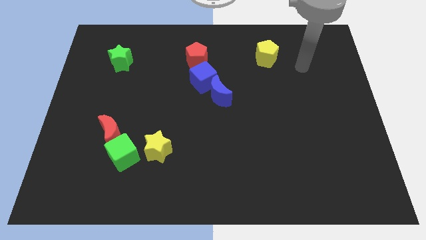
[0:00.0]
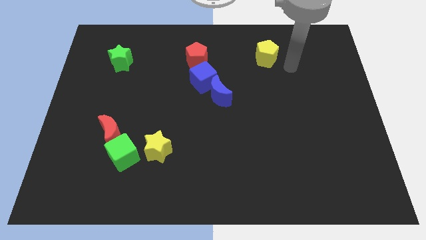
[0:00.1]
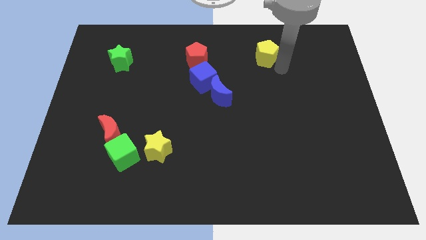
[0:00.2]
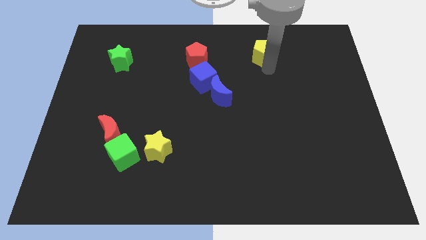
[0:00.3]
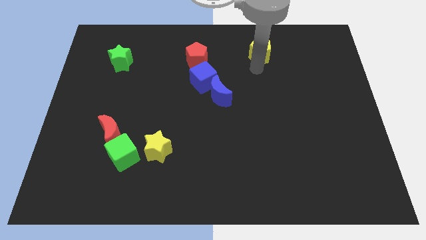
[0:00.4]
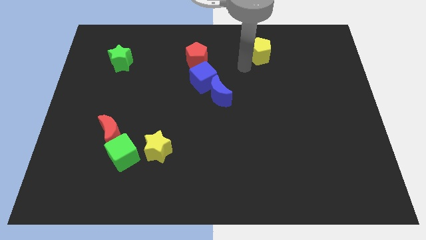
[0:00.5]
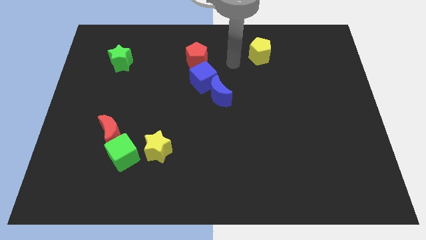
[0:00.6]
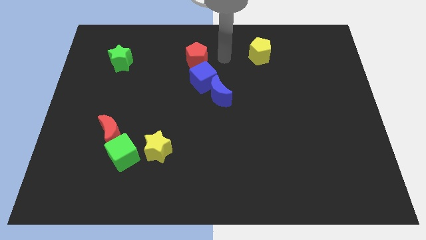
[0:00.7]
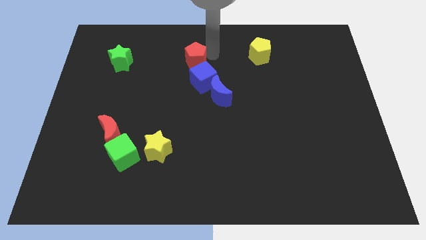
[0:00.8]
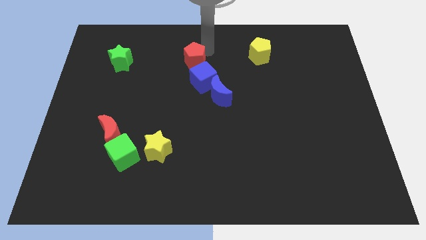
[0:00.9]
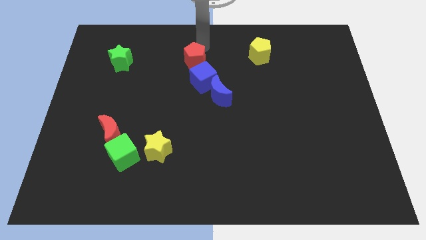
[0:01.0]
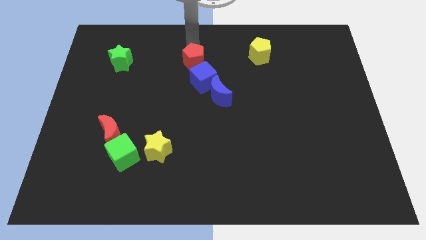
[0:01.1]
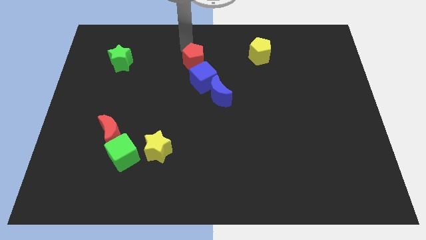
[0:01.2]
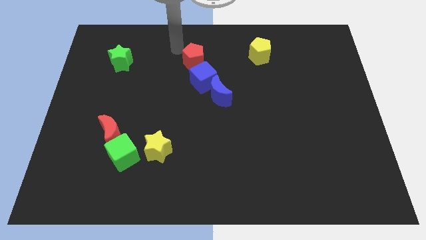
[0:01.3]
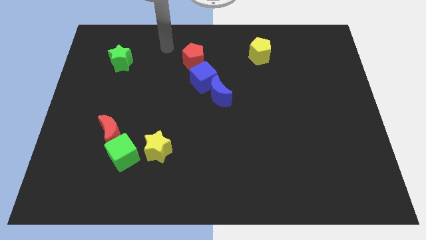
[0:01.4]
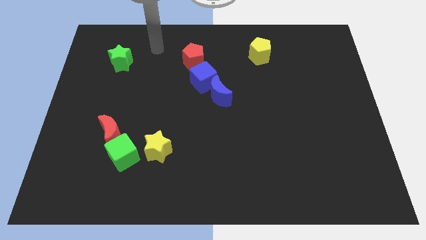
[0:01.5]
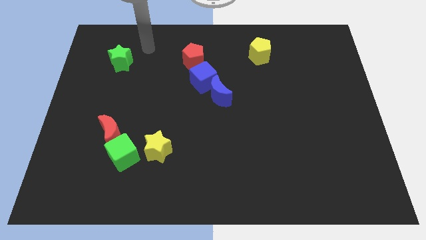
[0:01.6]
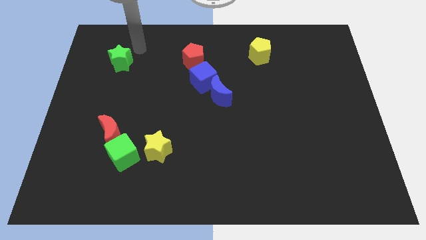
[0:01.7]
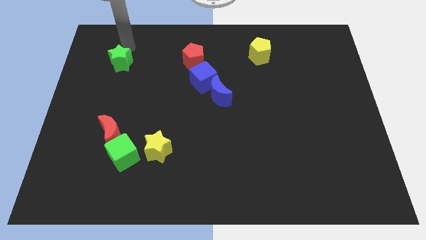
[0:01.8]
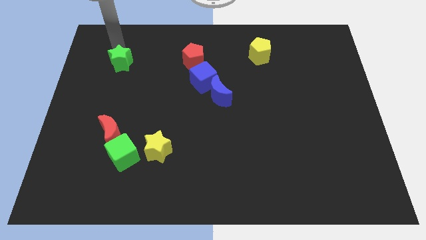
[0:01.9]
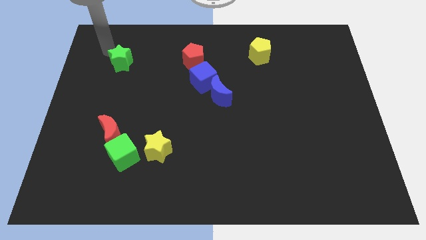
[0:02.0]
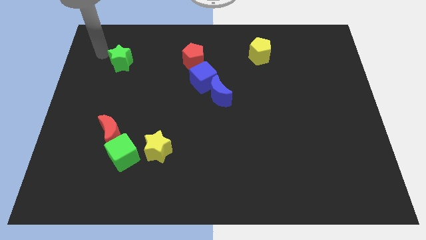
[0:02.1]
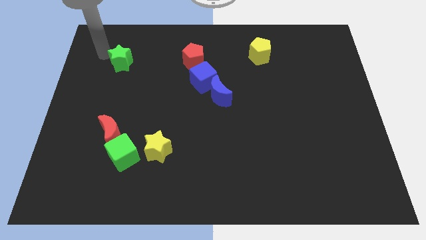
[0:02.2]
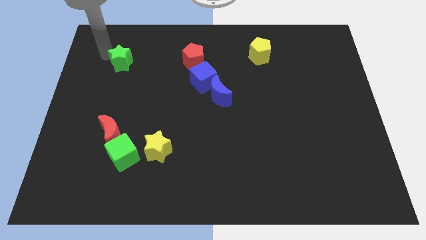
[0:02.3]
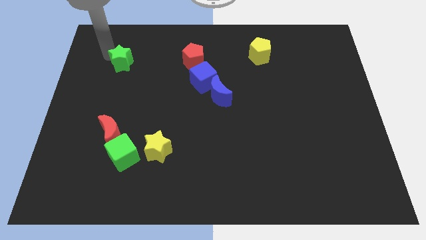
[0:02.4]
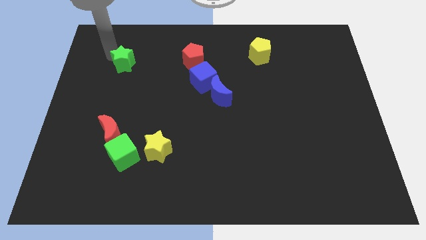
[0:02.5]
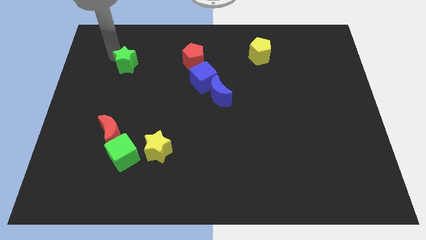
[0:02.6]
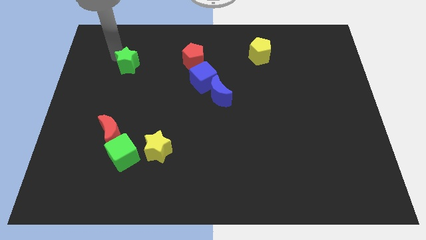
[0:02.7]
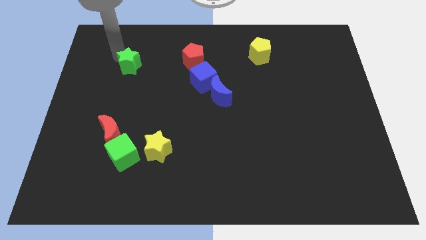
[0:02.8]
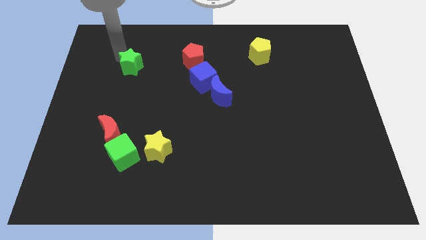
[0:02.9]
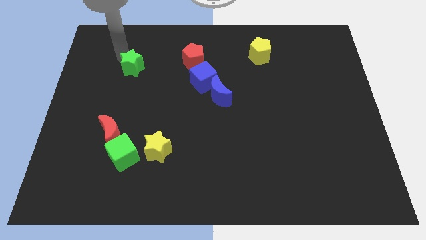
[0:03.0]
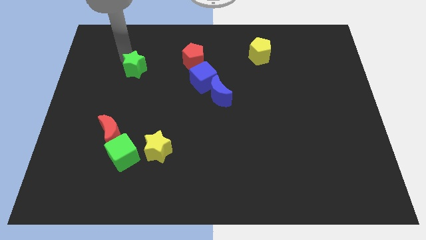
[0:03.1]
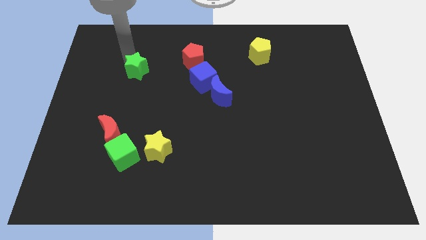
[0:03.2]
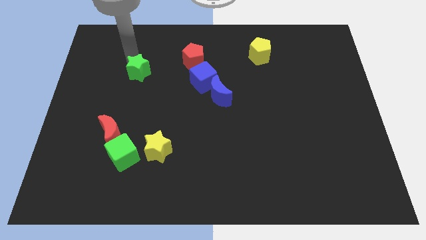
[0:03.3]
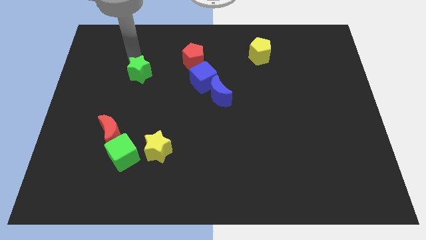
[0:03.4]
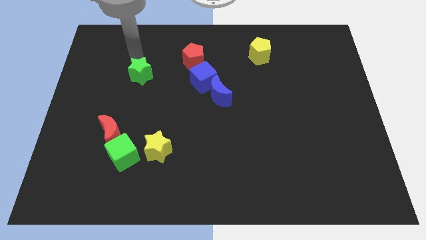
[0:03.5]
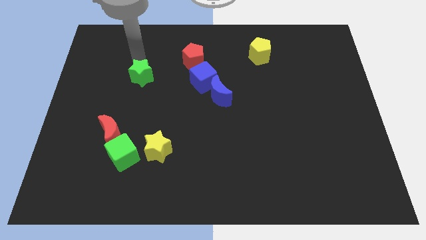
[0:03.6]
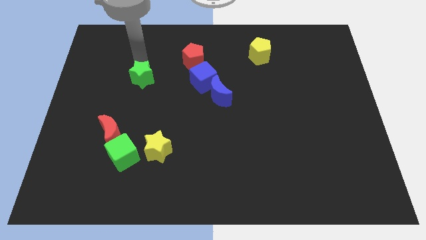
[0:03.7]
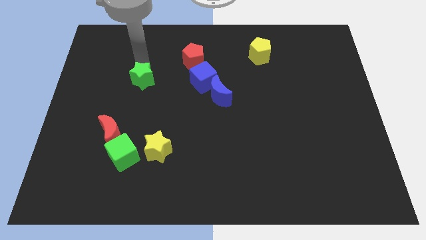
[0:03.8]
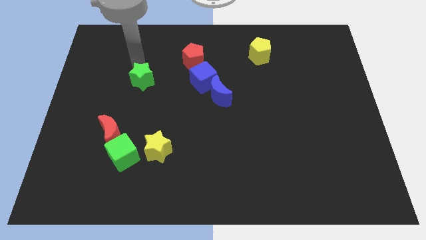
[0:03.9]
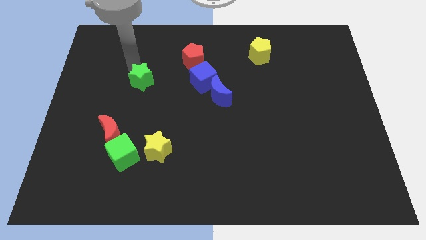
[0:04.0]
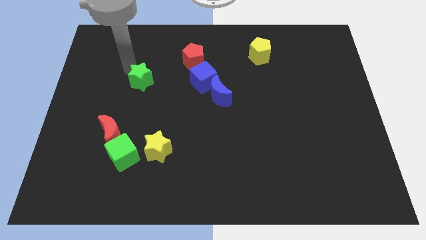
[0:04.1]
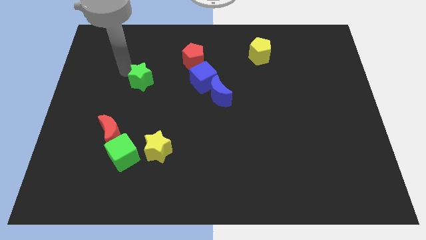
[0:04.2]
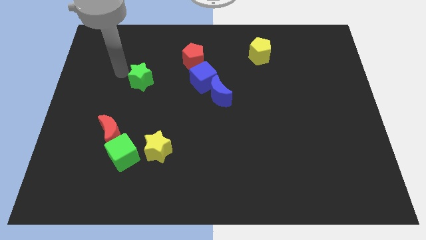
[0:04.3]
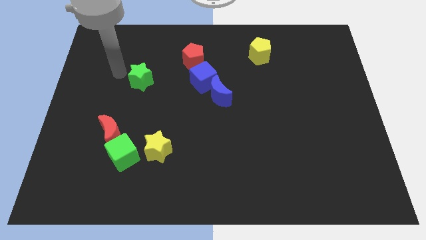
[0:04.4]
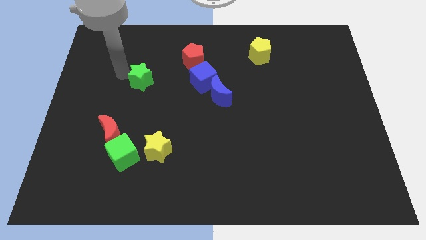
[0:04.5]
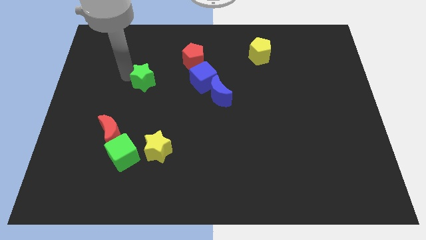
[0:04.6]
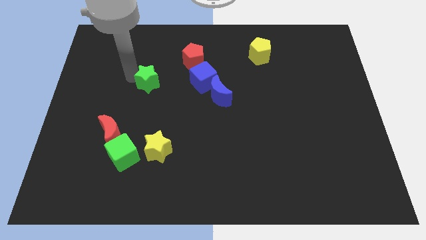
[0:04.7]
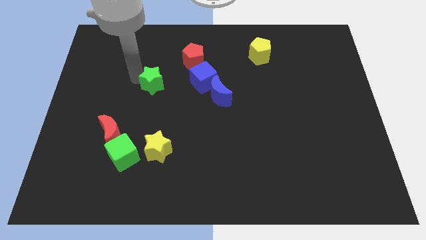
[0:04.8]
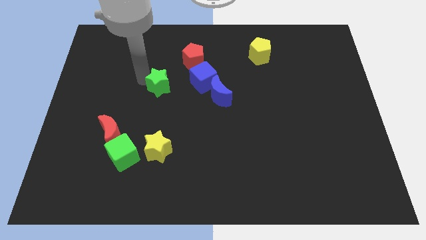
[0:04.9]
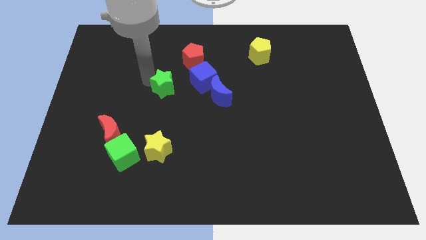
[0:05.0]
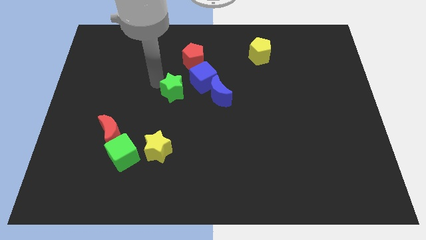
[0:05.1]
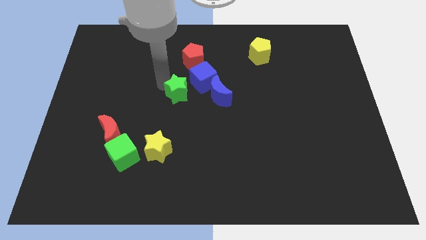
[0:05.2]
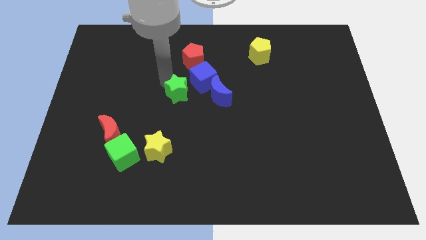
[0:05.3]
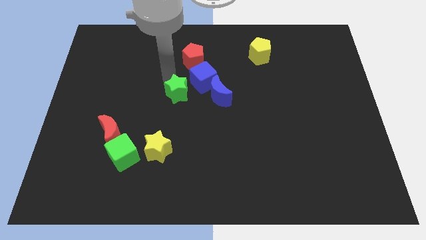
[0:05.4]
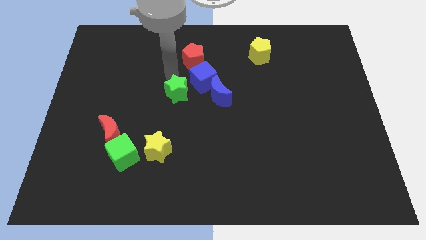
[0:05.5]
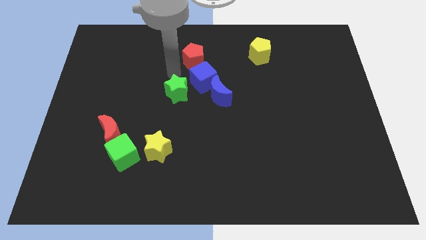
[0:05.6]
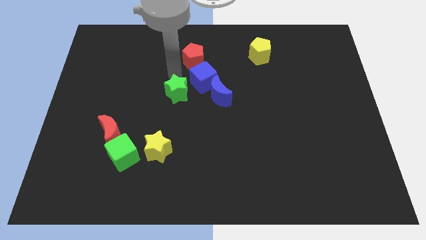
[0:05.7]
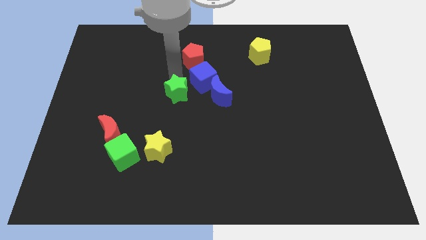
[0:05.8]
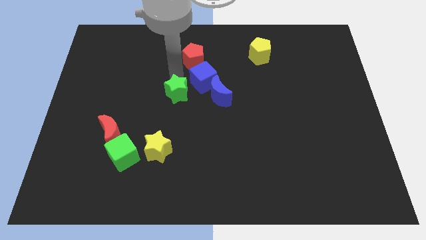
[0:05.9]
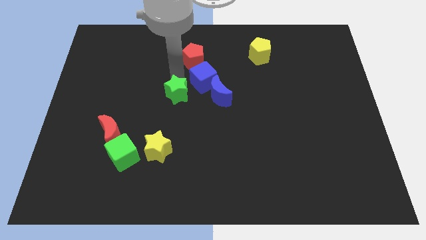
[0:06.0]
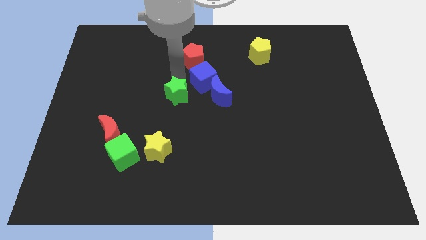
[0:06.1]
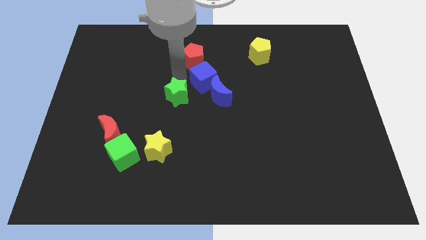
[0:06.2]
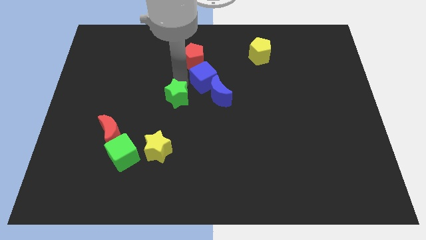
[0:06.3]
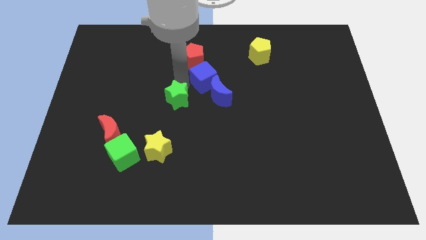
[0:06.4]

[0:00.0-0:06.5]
push the green star diagonally down and right

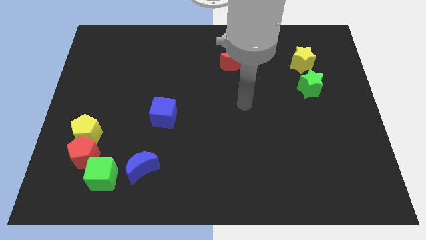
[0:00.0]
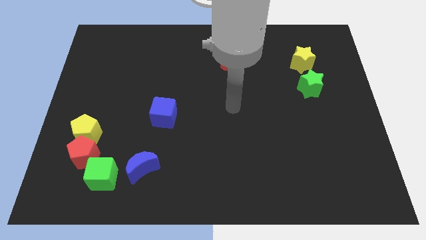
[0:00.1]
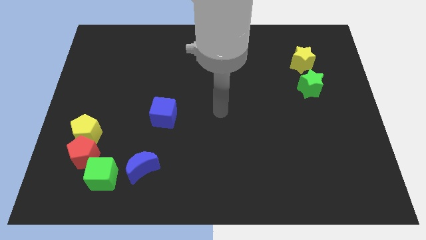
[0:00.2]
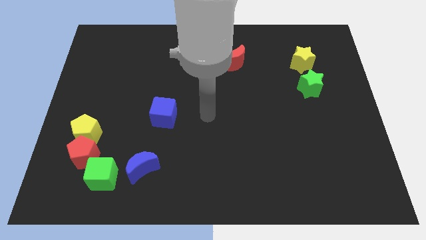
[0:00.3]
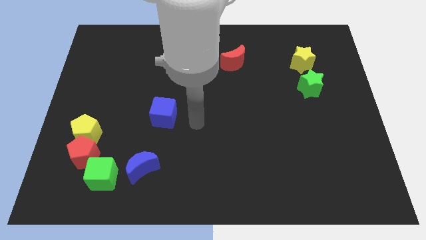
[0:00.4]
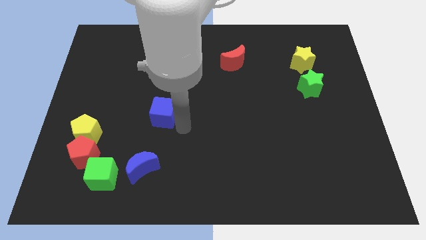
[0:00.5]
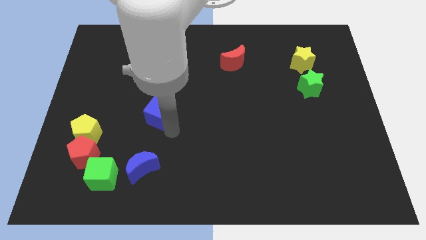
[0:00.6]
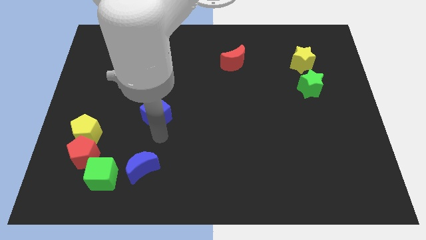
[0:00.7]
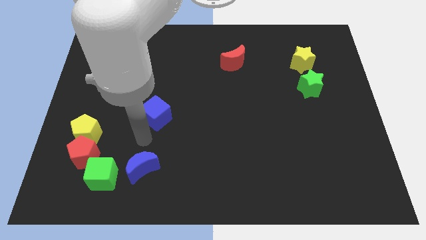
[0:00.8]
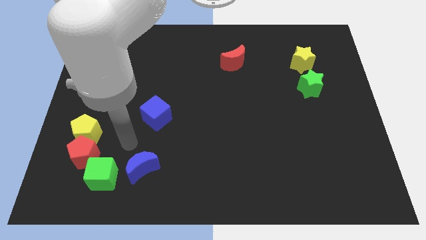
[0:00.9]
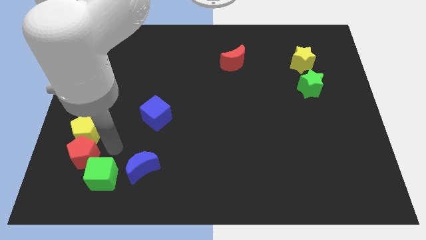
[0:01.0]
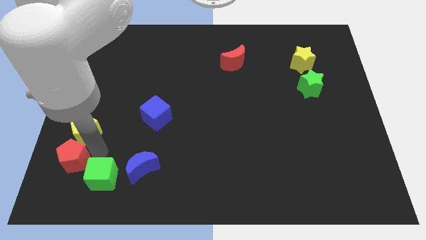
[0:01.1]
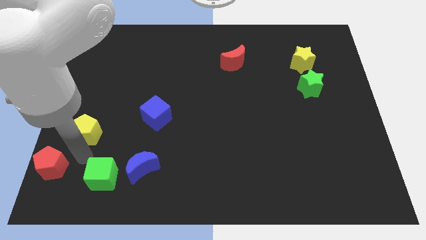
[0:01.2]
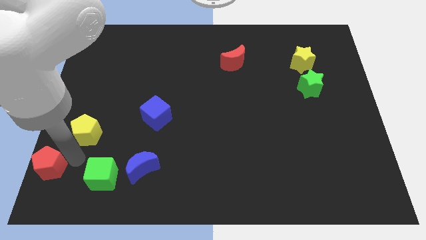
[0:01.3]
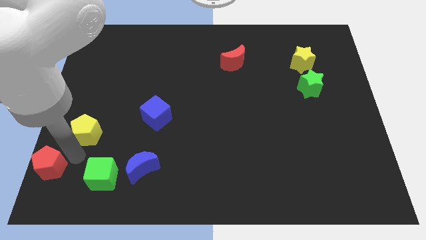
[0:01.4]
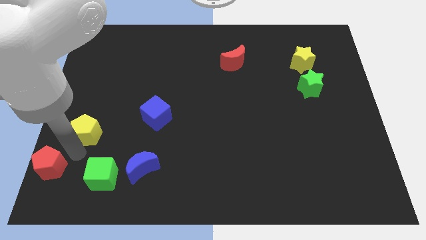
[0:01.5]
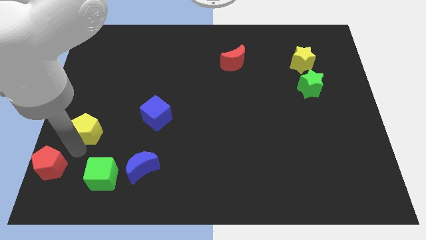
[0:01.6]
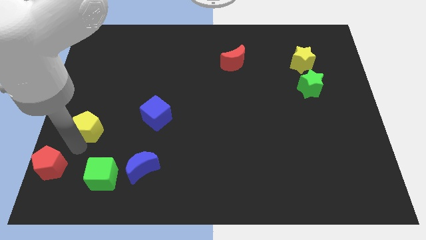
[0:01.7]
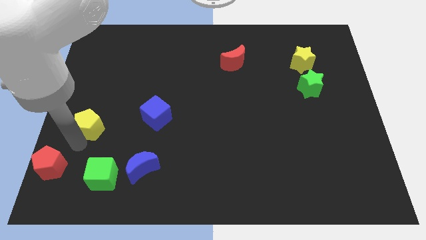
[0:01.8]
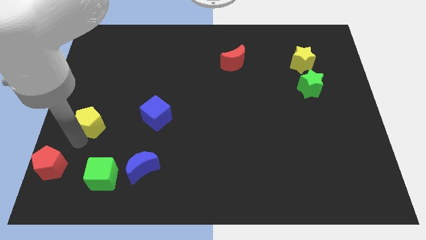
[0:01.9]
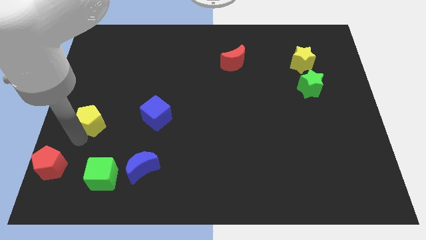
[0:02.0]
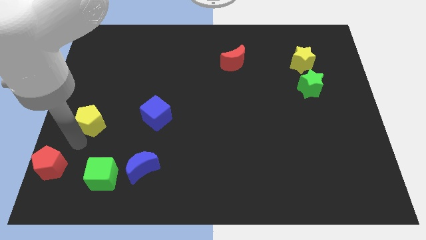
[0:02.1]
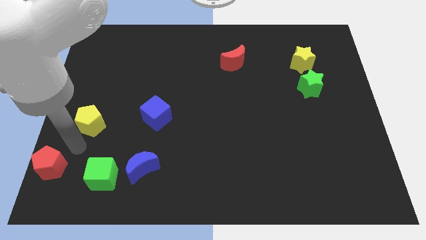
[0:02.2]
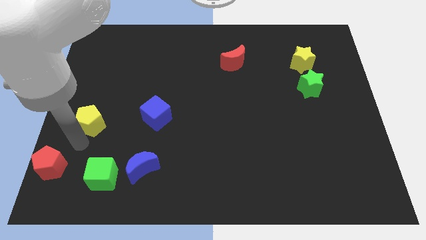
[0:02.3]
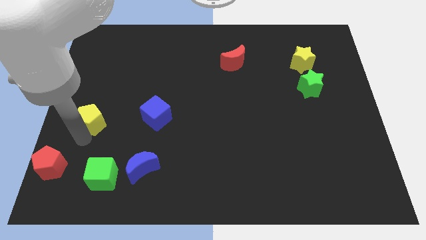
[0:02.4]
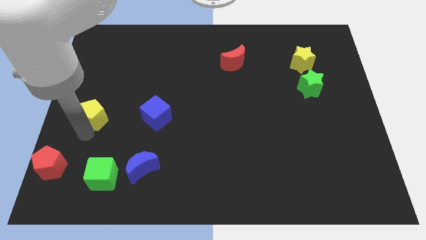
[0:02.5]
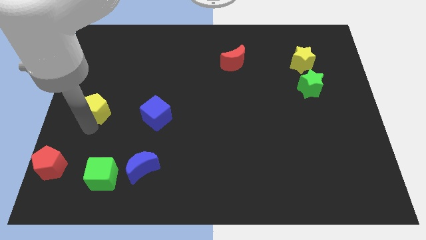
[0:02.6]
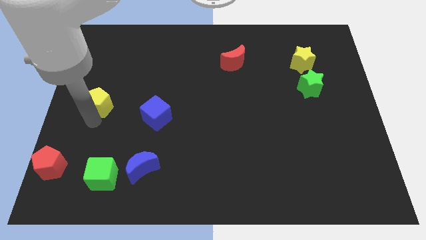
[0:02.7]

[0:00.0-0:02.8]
move the yellow pentagon upwards a little
